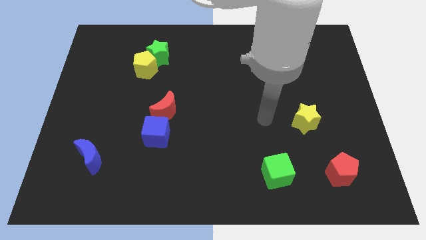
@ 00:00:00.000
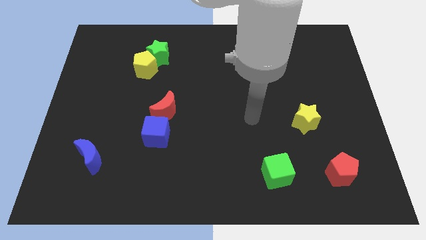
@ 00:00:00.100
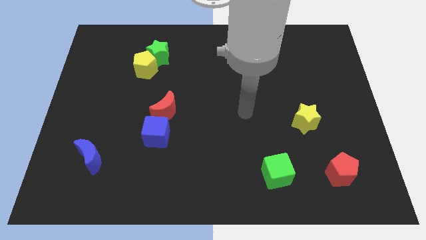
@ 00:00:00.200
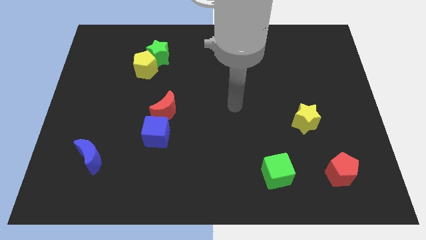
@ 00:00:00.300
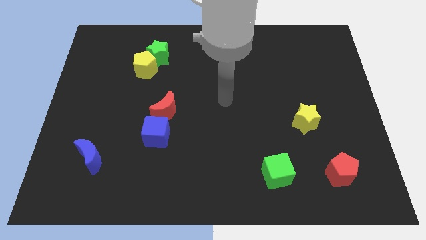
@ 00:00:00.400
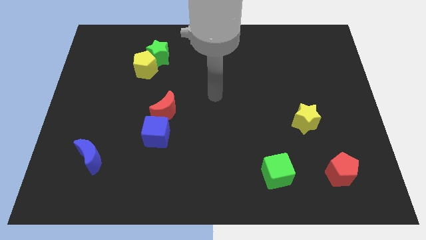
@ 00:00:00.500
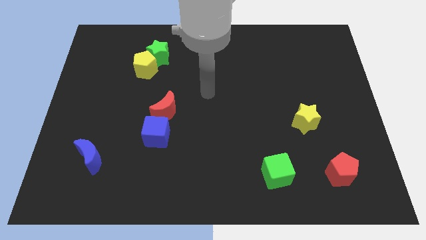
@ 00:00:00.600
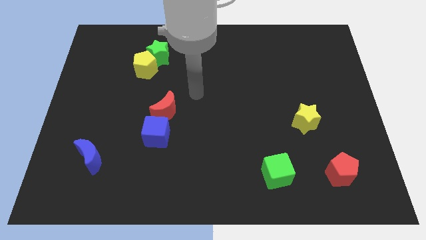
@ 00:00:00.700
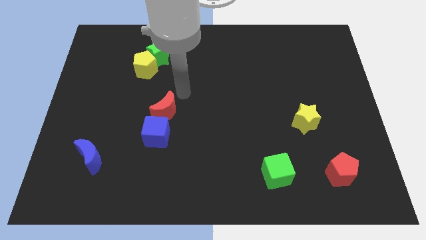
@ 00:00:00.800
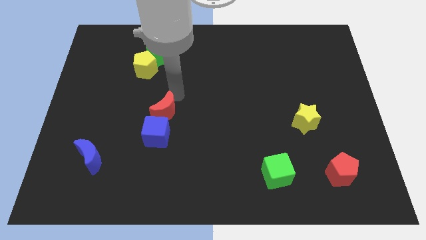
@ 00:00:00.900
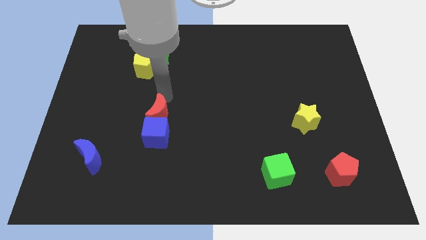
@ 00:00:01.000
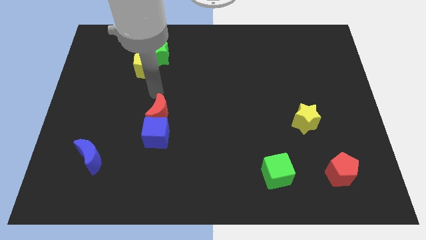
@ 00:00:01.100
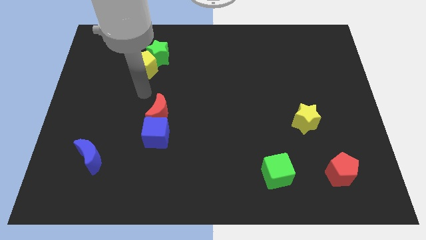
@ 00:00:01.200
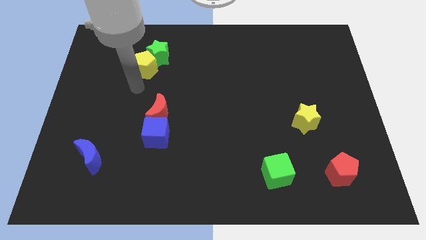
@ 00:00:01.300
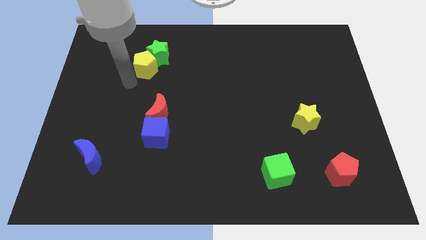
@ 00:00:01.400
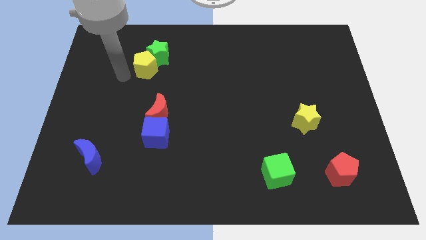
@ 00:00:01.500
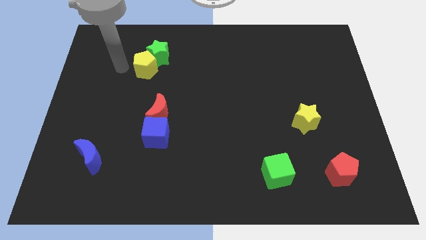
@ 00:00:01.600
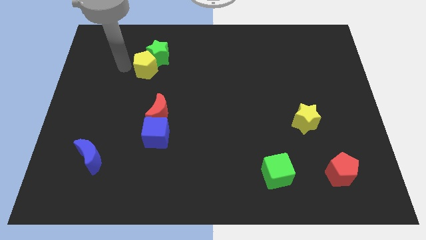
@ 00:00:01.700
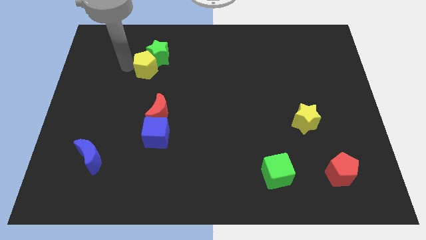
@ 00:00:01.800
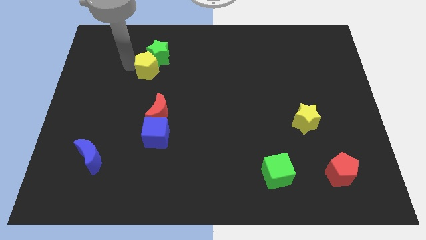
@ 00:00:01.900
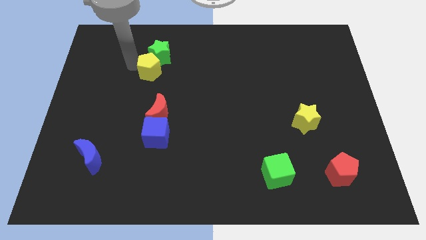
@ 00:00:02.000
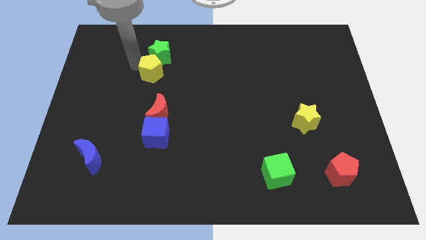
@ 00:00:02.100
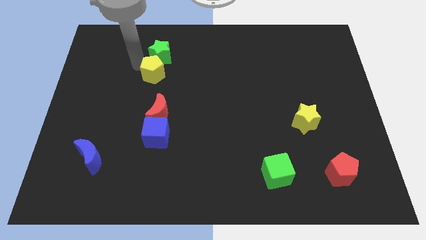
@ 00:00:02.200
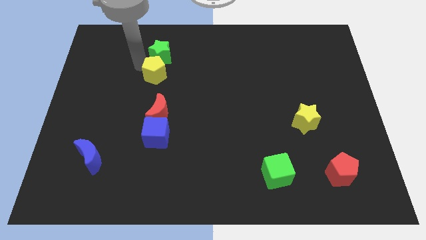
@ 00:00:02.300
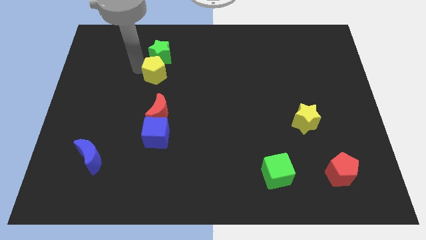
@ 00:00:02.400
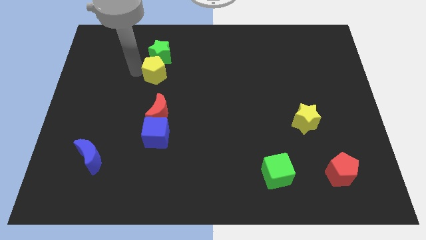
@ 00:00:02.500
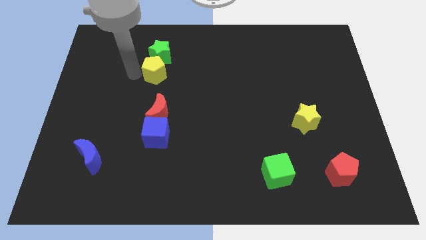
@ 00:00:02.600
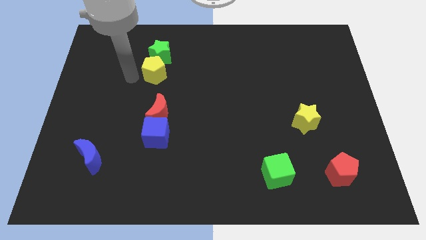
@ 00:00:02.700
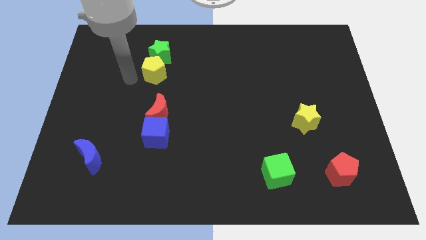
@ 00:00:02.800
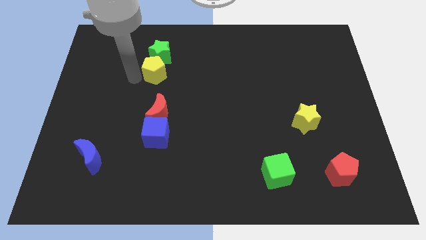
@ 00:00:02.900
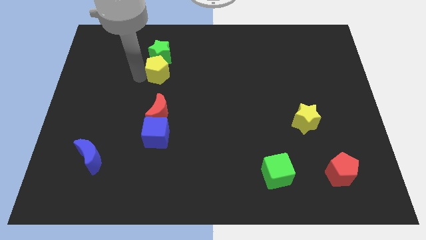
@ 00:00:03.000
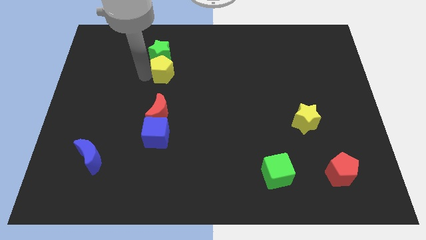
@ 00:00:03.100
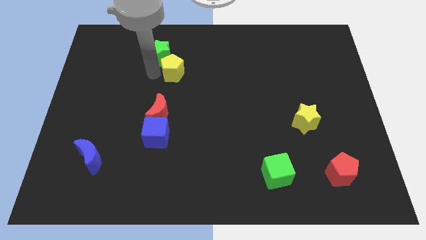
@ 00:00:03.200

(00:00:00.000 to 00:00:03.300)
slightly move the yellow pentagon right

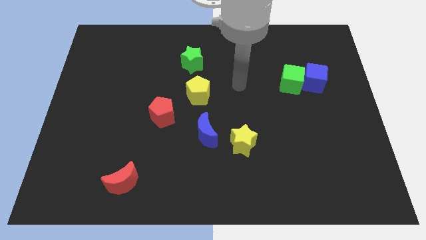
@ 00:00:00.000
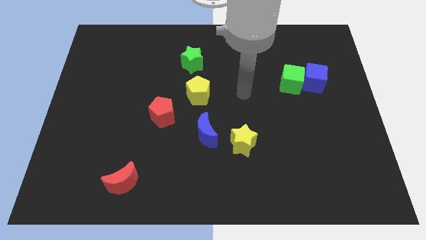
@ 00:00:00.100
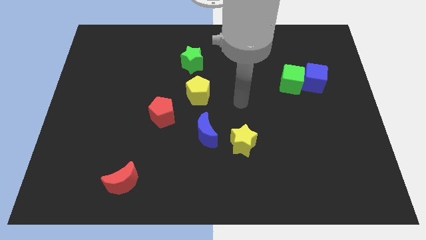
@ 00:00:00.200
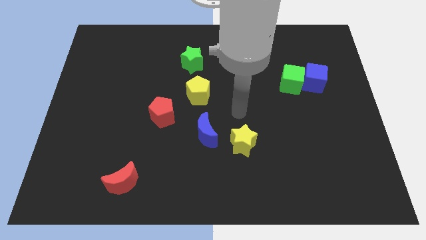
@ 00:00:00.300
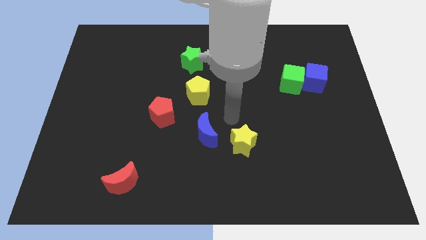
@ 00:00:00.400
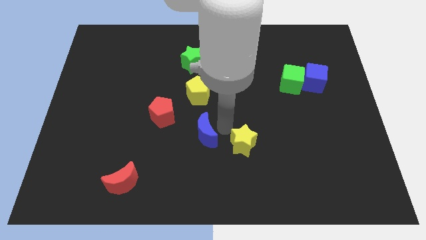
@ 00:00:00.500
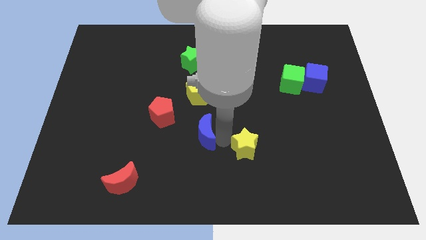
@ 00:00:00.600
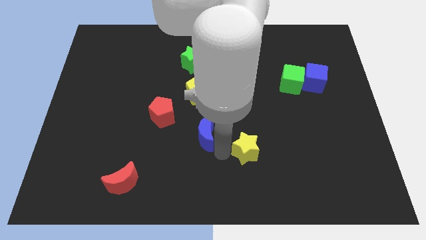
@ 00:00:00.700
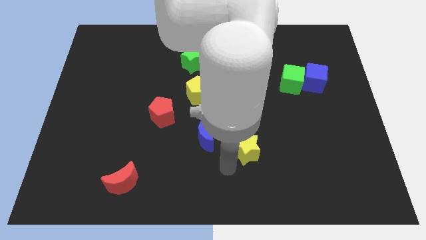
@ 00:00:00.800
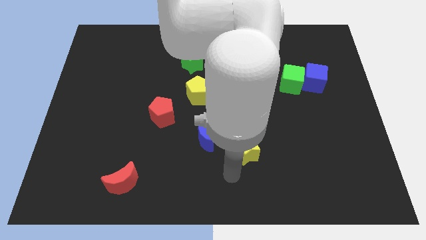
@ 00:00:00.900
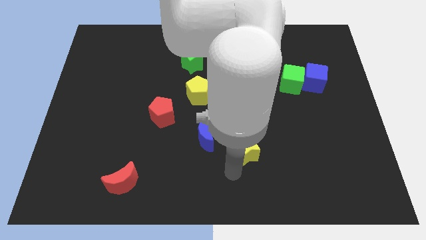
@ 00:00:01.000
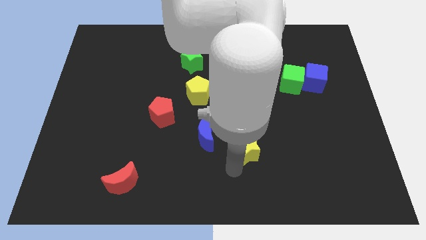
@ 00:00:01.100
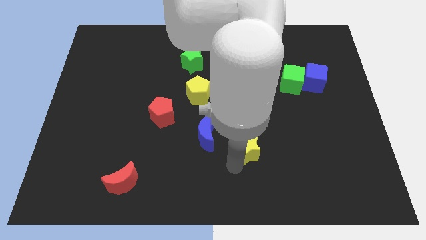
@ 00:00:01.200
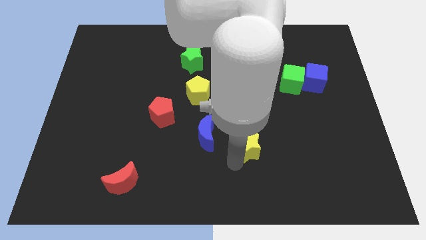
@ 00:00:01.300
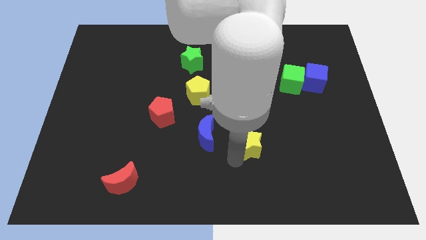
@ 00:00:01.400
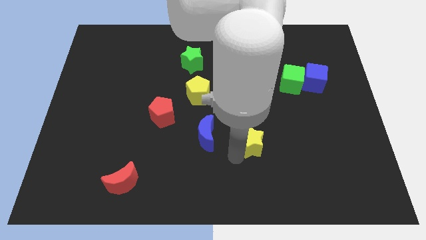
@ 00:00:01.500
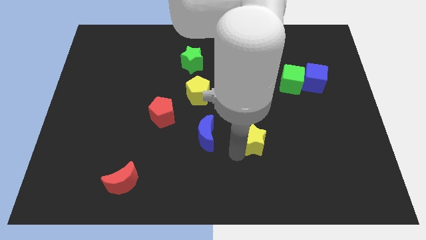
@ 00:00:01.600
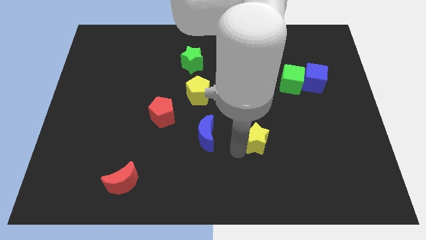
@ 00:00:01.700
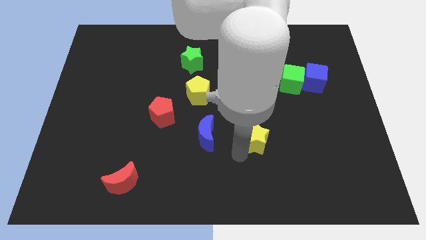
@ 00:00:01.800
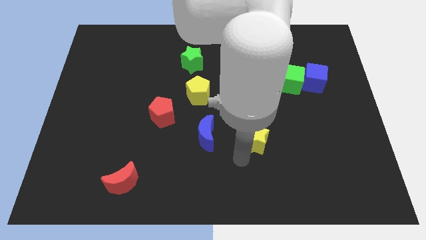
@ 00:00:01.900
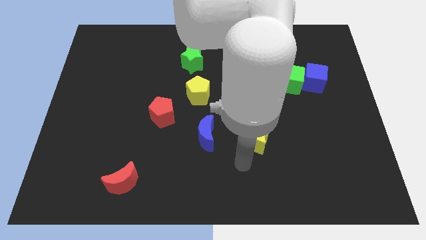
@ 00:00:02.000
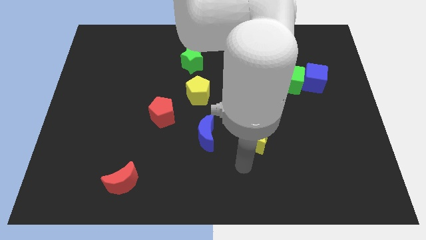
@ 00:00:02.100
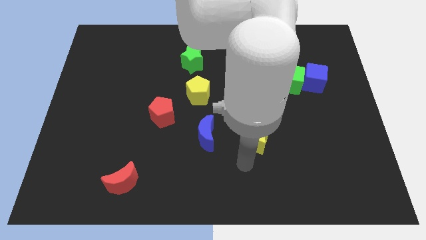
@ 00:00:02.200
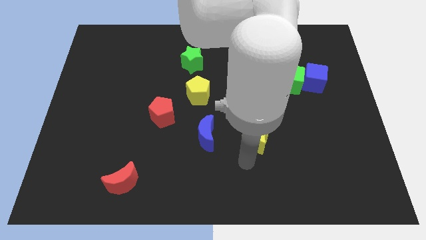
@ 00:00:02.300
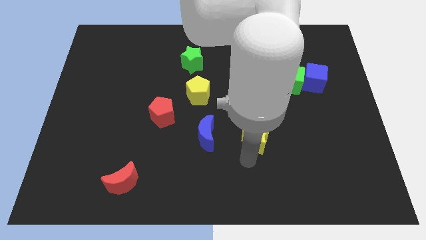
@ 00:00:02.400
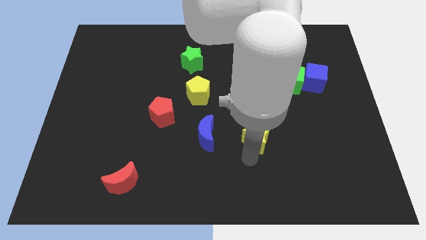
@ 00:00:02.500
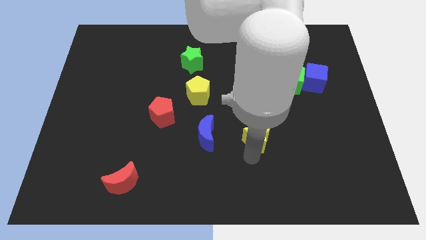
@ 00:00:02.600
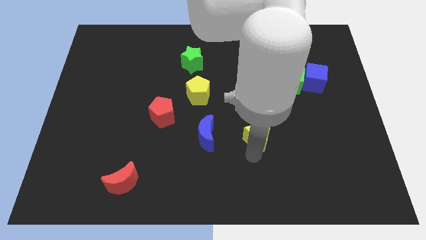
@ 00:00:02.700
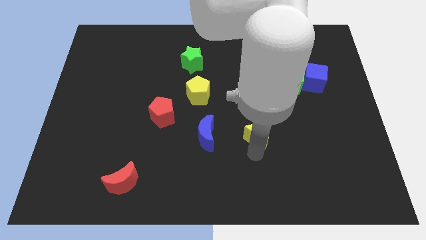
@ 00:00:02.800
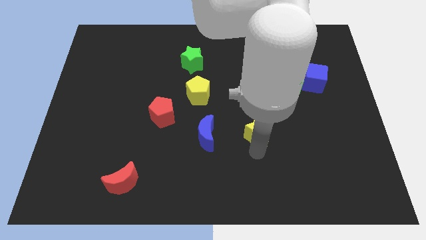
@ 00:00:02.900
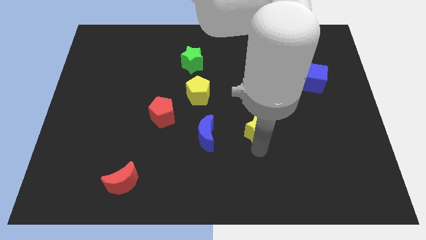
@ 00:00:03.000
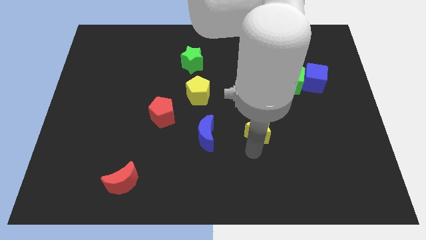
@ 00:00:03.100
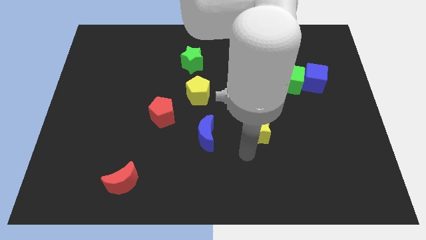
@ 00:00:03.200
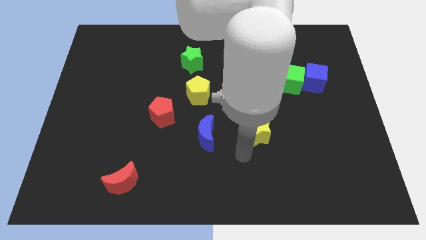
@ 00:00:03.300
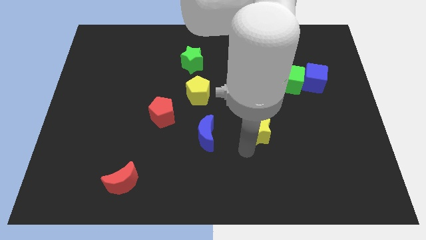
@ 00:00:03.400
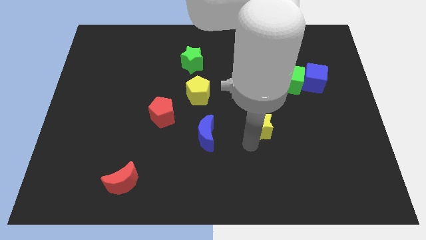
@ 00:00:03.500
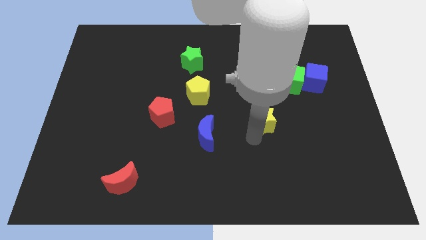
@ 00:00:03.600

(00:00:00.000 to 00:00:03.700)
move the yellow star slightly diagonally up and to the right

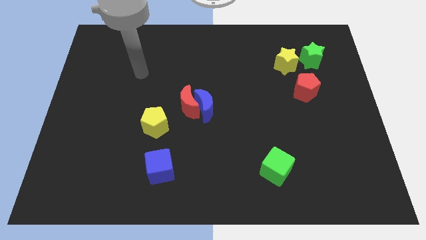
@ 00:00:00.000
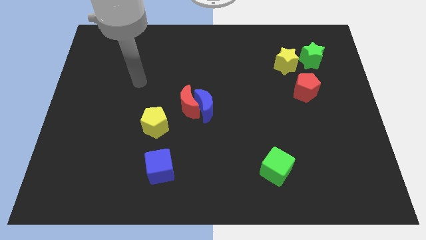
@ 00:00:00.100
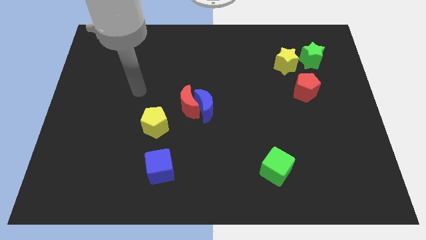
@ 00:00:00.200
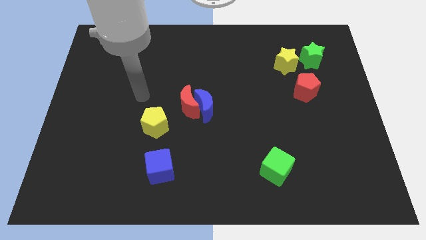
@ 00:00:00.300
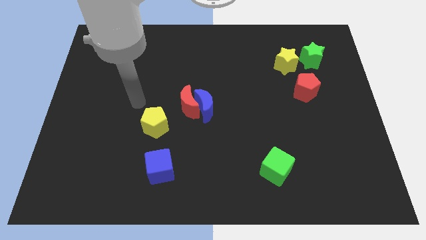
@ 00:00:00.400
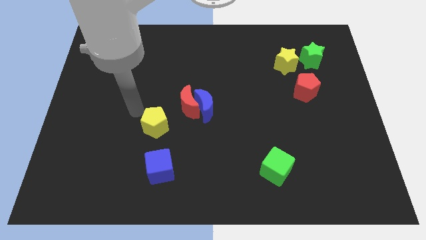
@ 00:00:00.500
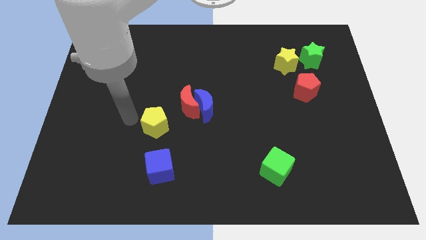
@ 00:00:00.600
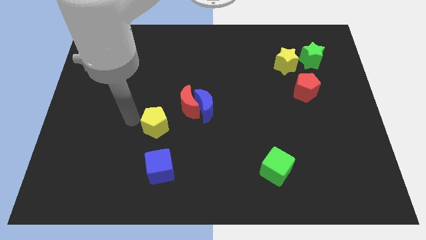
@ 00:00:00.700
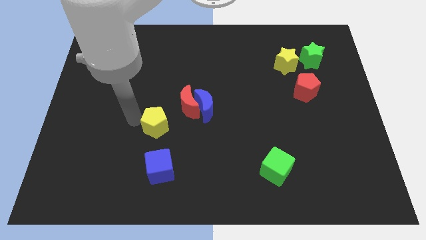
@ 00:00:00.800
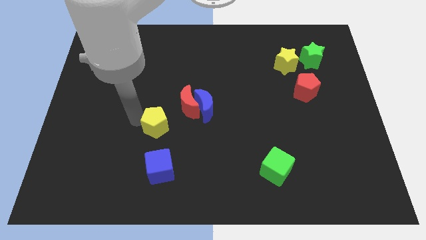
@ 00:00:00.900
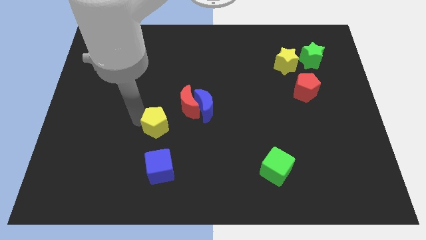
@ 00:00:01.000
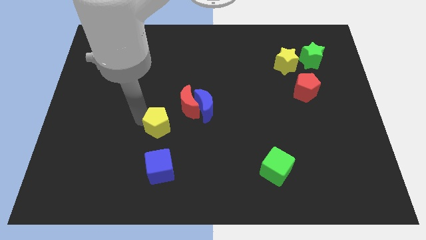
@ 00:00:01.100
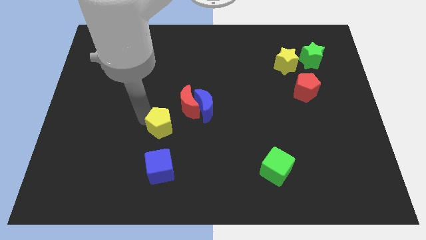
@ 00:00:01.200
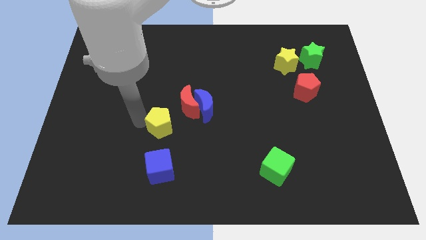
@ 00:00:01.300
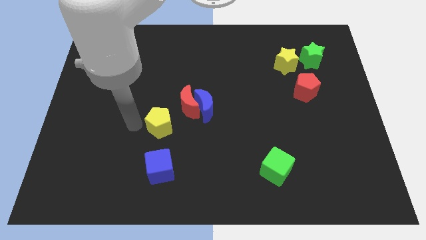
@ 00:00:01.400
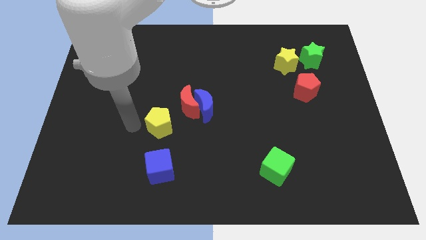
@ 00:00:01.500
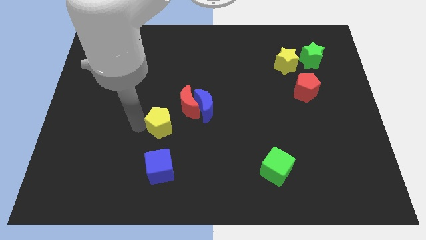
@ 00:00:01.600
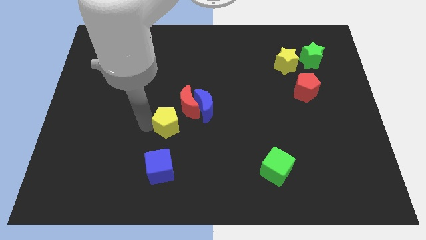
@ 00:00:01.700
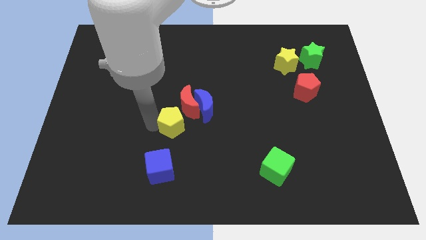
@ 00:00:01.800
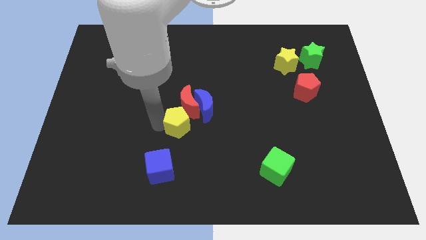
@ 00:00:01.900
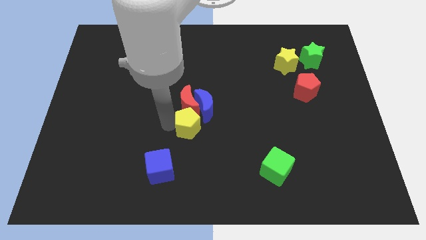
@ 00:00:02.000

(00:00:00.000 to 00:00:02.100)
push the yellow pentagon right a bit
